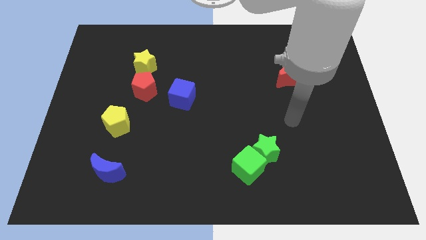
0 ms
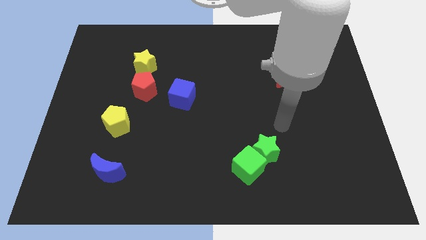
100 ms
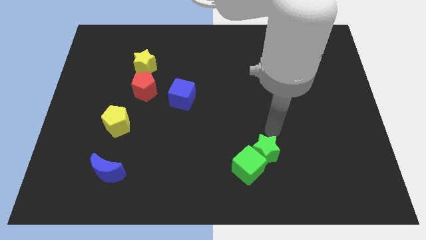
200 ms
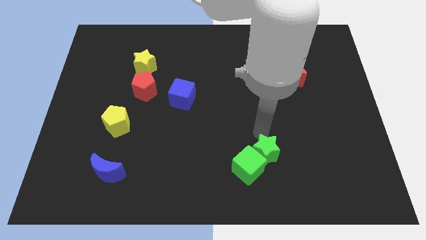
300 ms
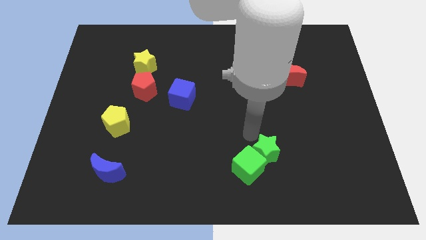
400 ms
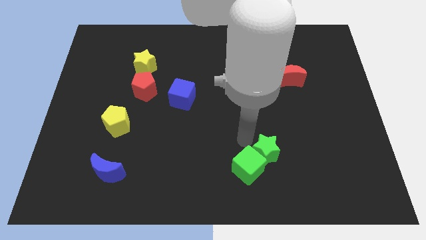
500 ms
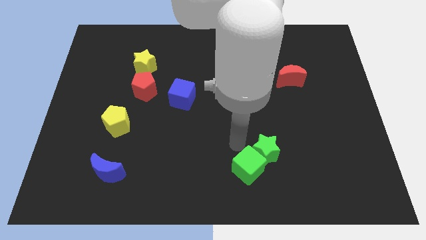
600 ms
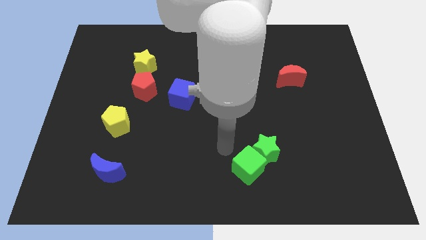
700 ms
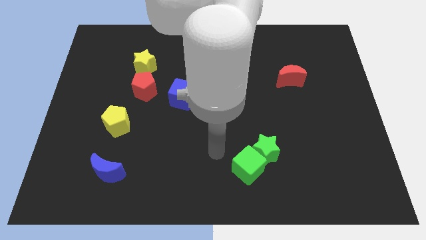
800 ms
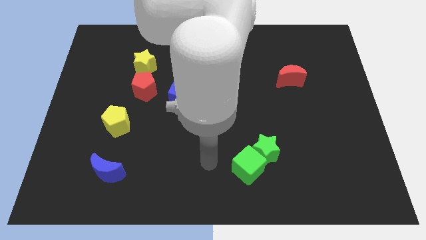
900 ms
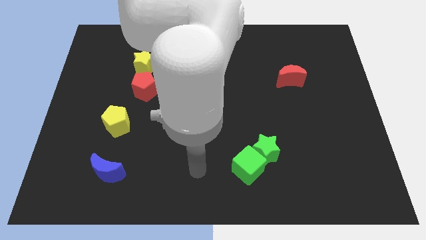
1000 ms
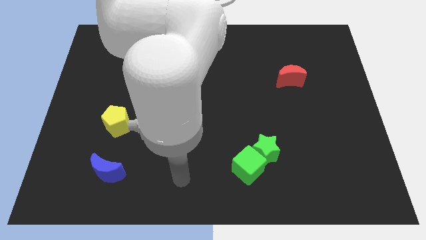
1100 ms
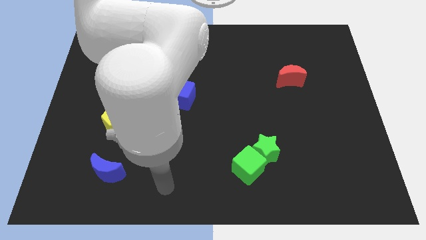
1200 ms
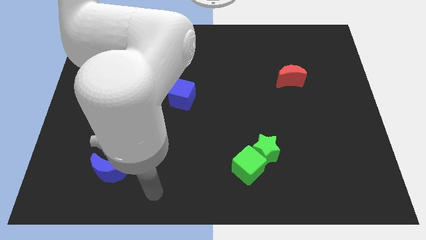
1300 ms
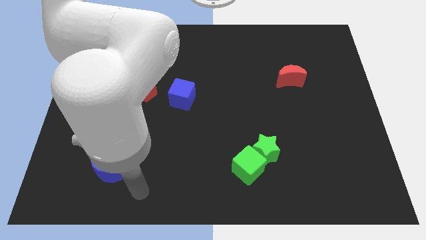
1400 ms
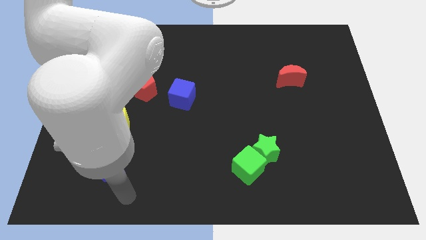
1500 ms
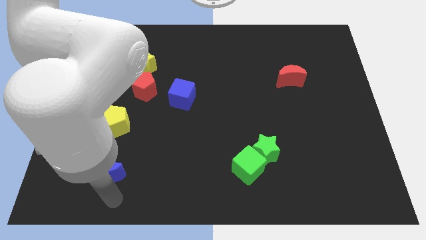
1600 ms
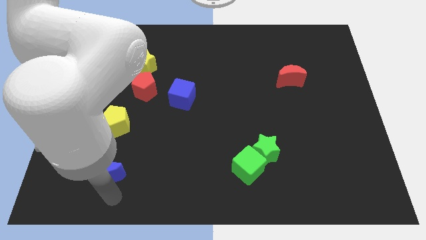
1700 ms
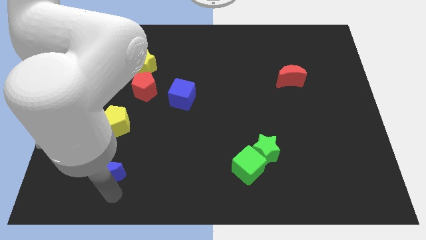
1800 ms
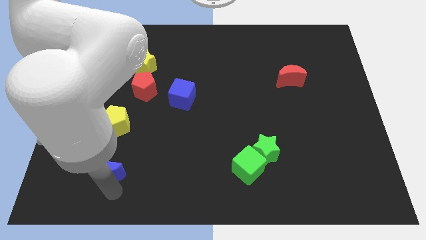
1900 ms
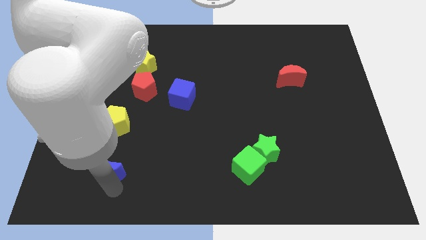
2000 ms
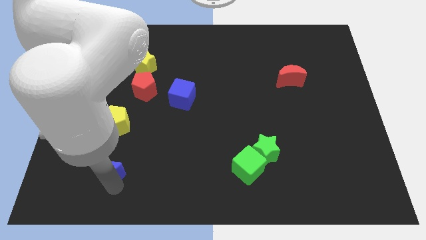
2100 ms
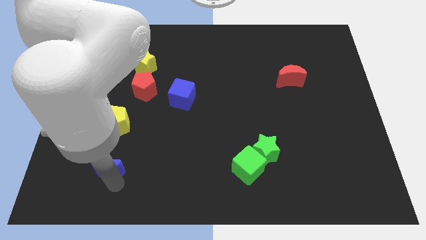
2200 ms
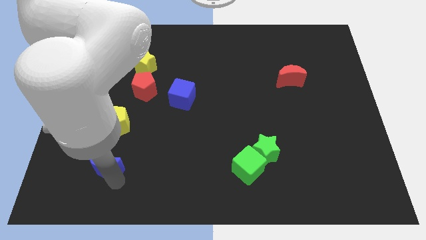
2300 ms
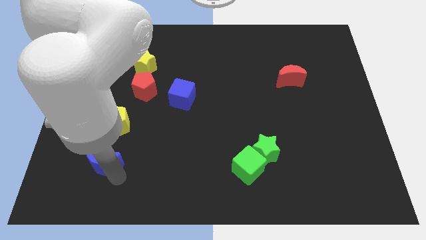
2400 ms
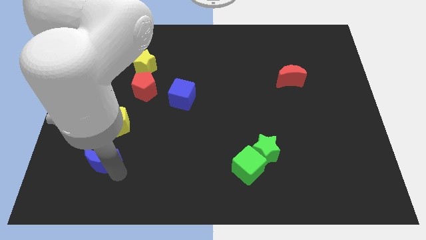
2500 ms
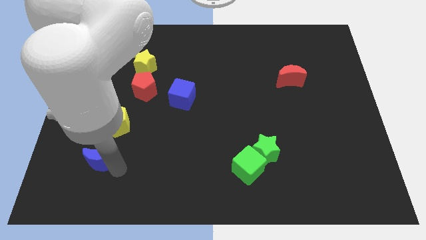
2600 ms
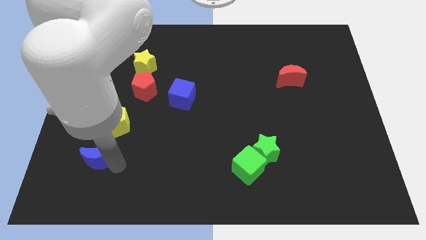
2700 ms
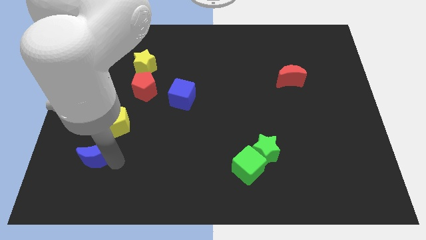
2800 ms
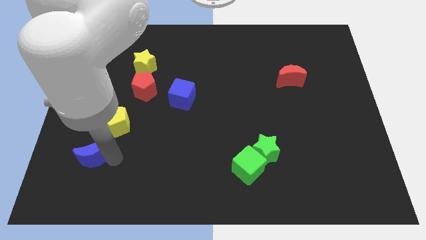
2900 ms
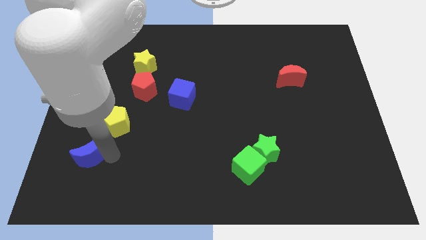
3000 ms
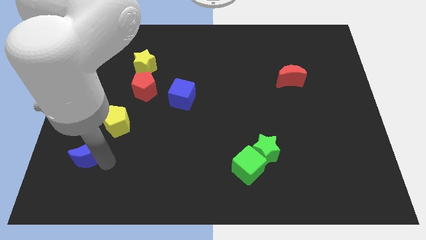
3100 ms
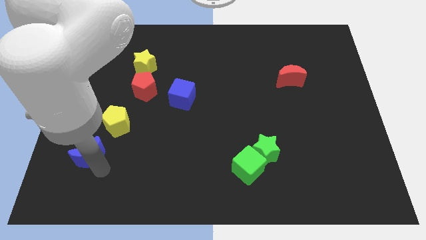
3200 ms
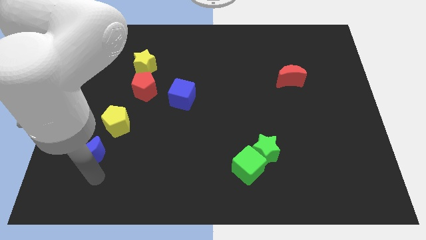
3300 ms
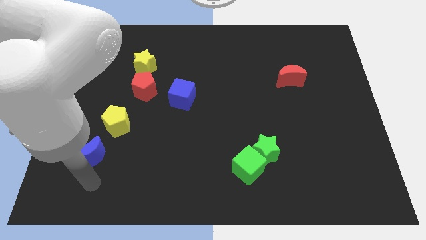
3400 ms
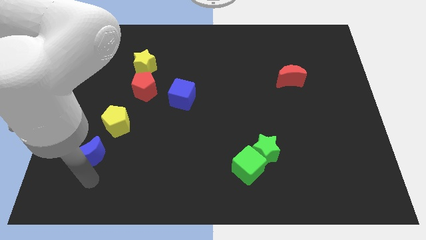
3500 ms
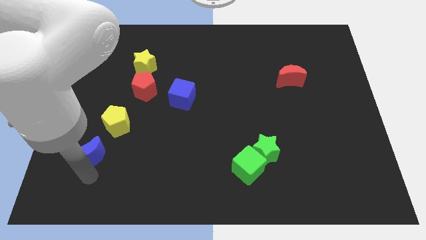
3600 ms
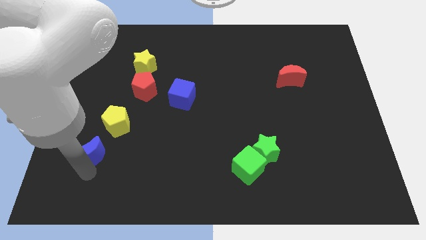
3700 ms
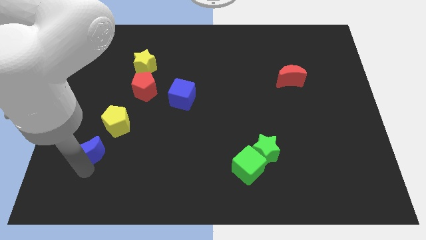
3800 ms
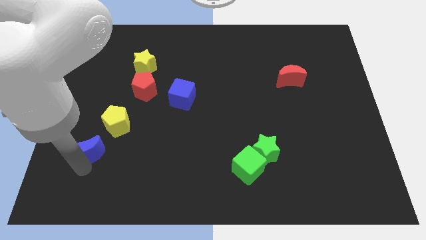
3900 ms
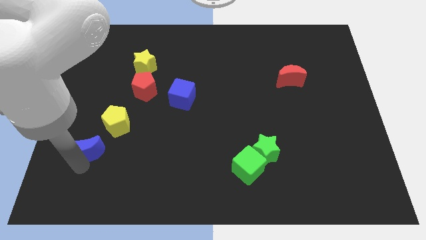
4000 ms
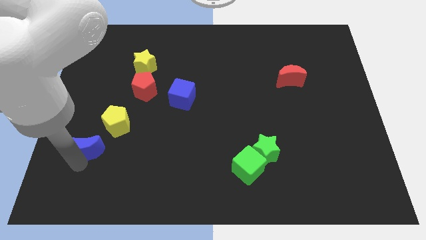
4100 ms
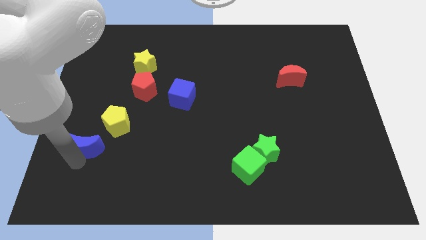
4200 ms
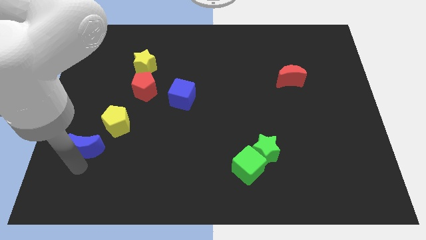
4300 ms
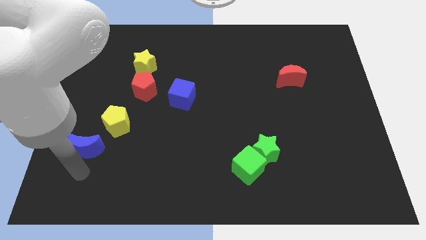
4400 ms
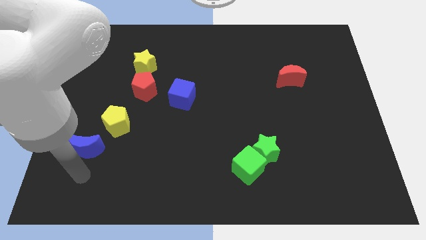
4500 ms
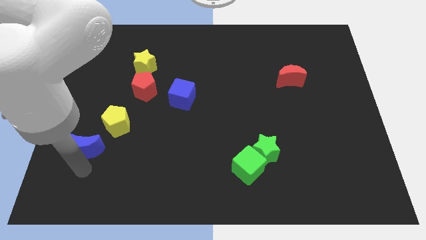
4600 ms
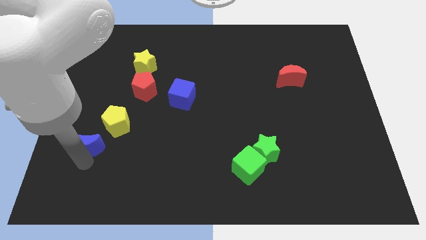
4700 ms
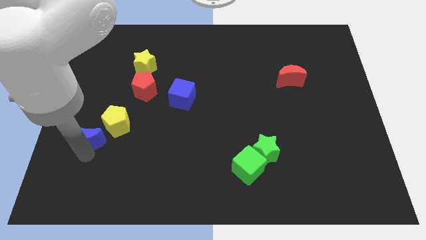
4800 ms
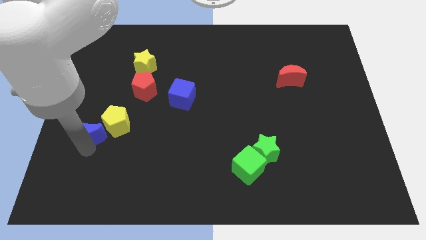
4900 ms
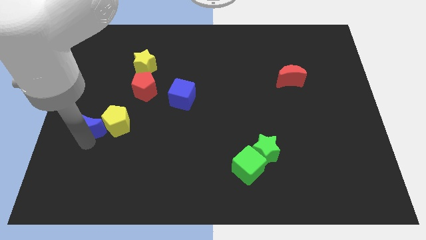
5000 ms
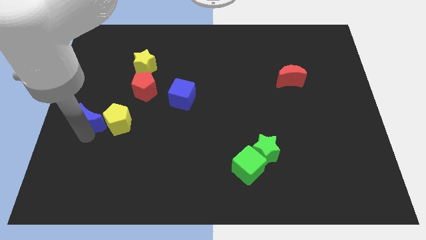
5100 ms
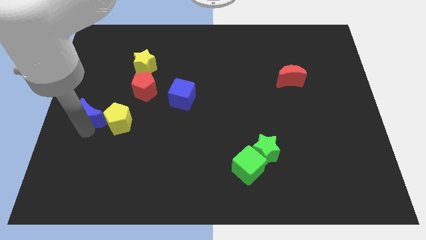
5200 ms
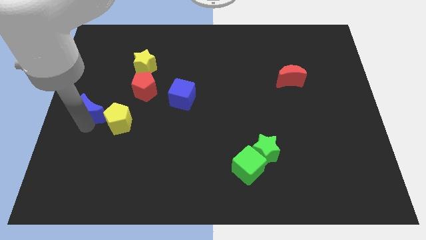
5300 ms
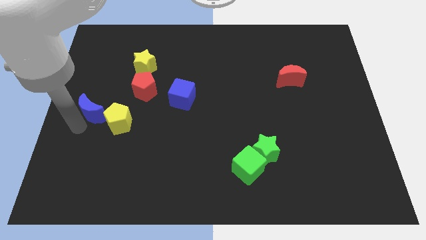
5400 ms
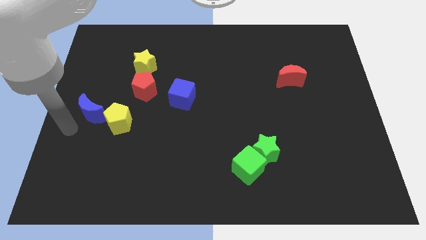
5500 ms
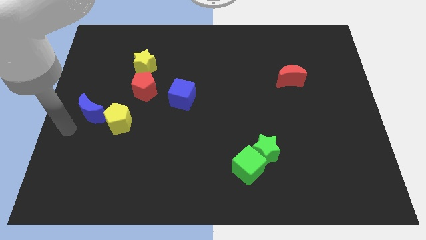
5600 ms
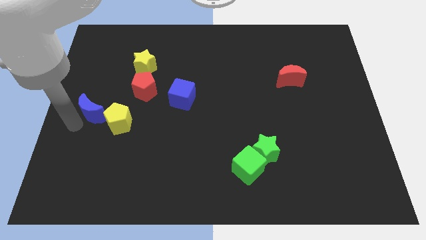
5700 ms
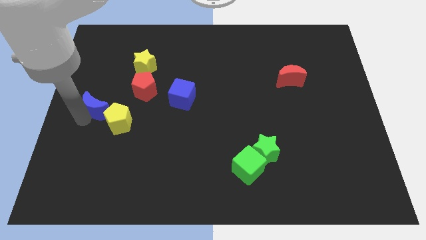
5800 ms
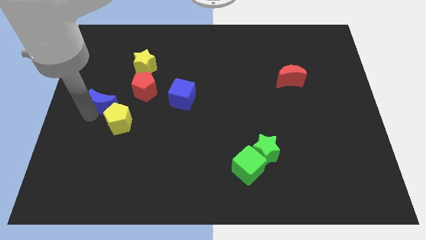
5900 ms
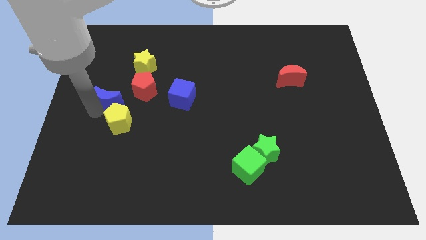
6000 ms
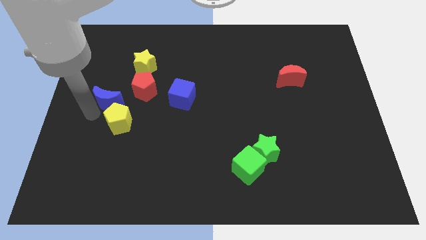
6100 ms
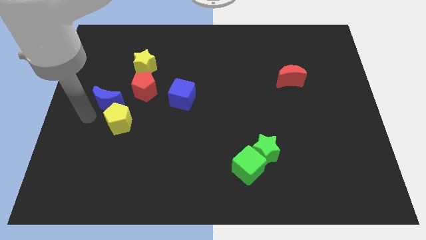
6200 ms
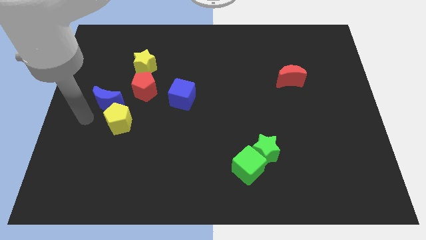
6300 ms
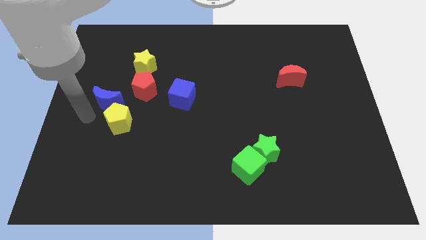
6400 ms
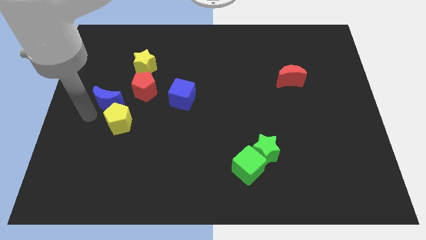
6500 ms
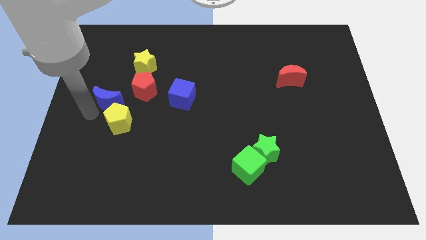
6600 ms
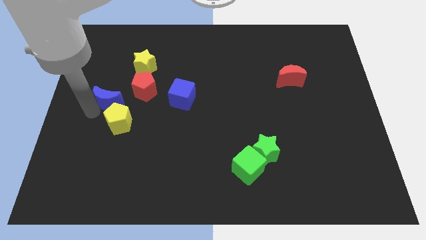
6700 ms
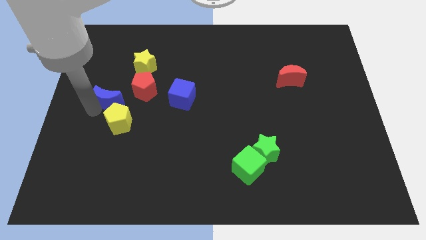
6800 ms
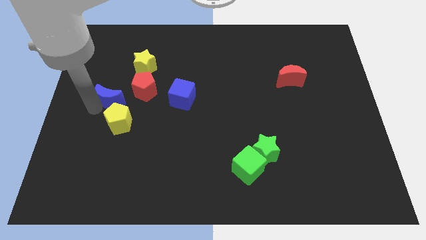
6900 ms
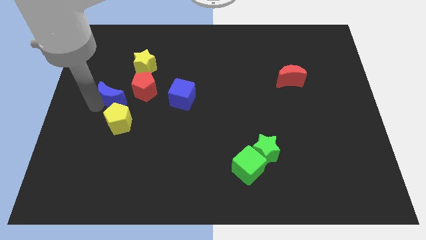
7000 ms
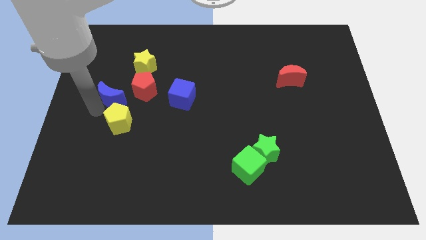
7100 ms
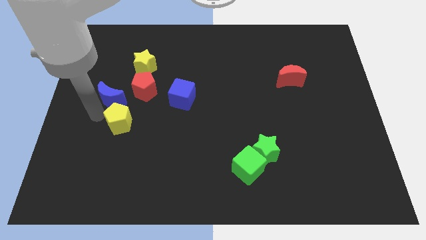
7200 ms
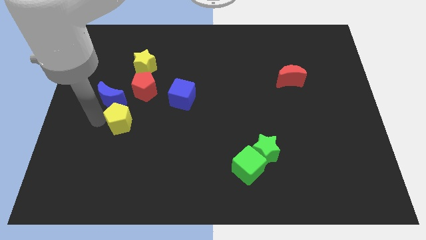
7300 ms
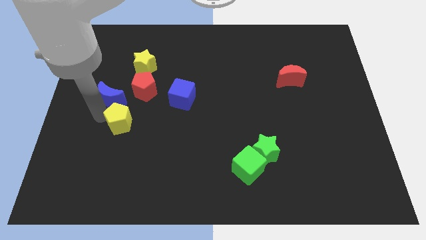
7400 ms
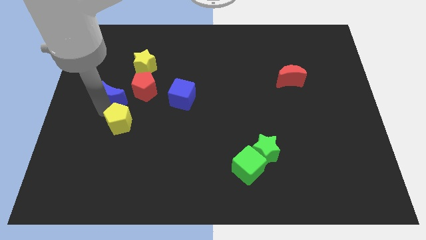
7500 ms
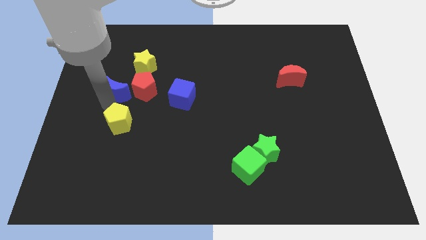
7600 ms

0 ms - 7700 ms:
push the blue moon up
